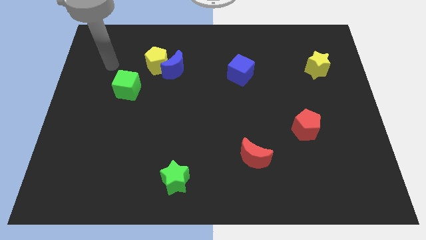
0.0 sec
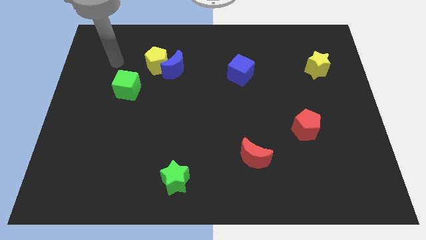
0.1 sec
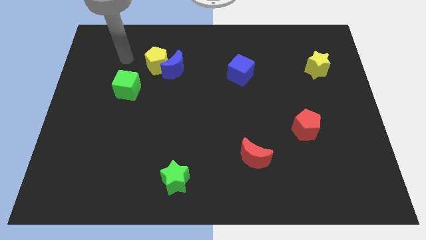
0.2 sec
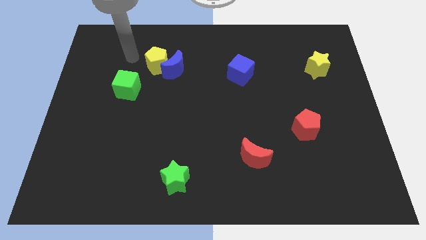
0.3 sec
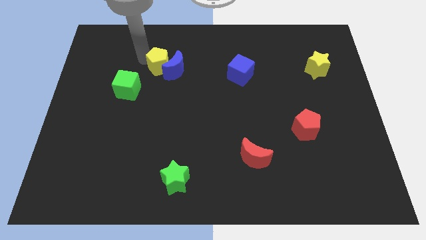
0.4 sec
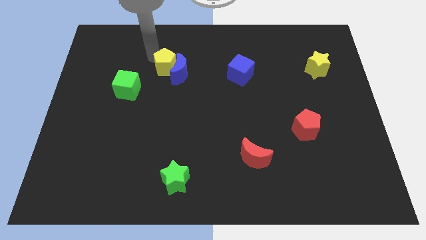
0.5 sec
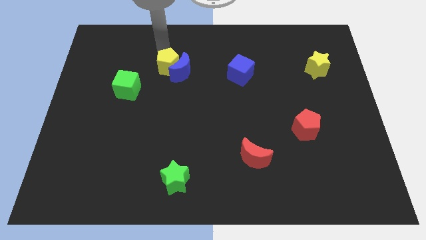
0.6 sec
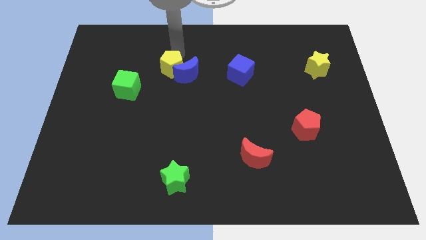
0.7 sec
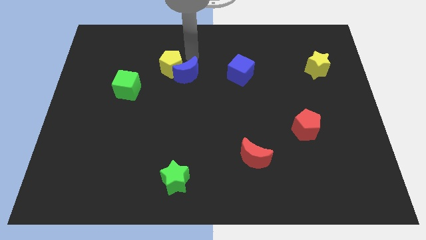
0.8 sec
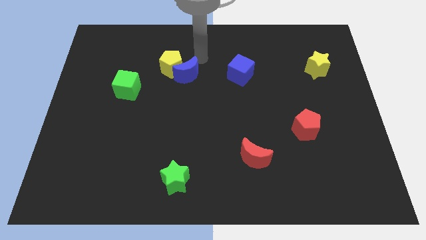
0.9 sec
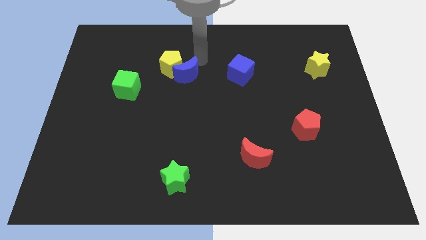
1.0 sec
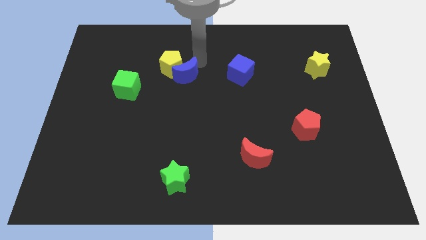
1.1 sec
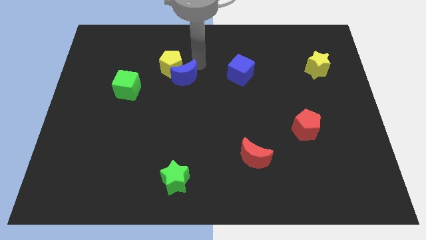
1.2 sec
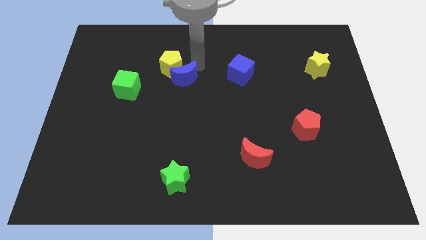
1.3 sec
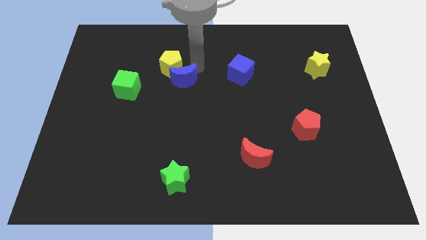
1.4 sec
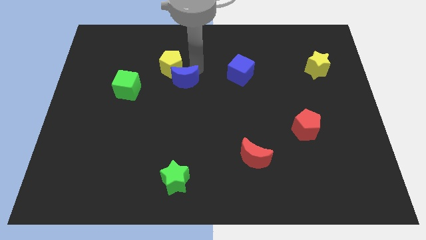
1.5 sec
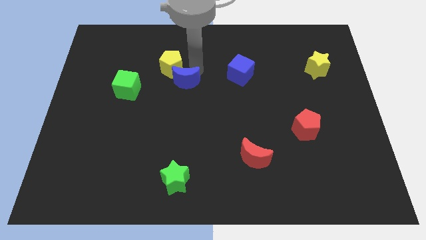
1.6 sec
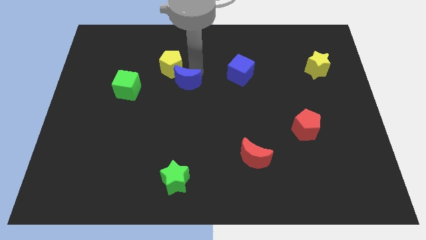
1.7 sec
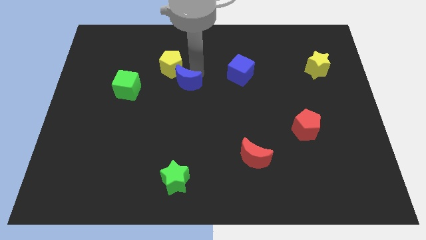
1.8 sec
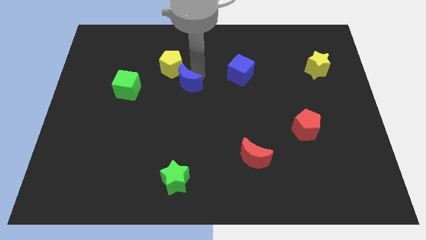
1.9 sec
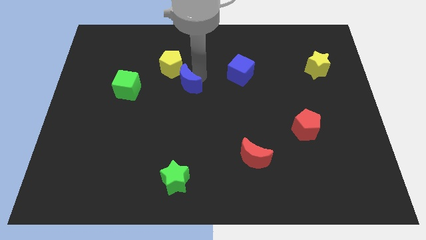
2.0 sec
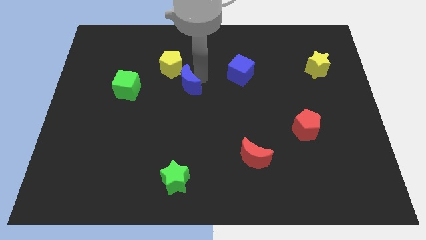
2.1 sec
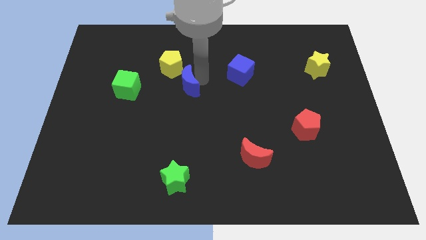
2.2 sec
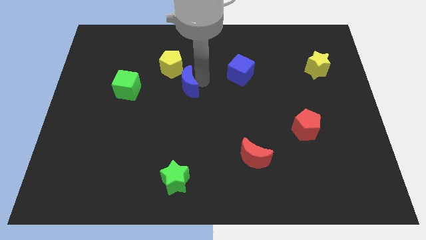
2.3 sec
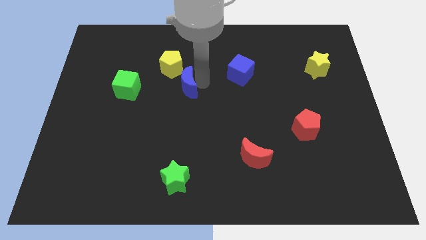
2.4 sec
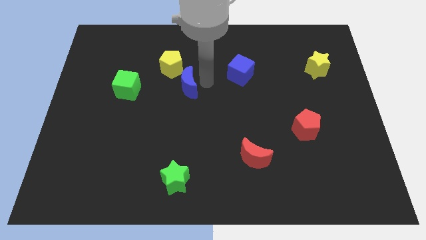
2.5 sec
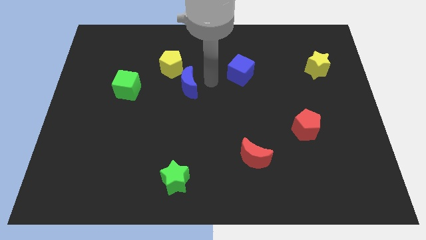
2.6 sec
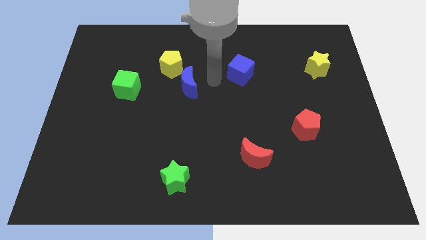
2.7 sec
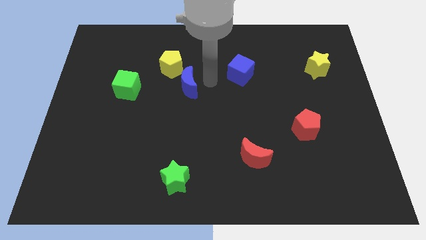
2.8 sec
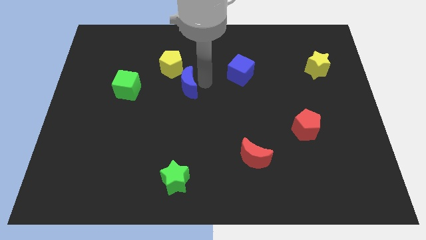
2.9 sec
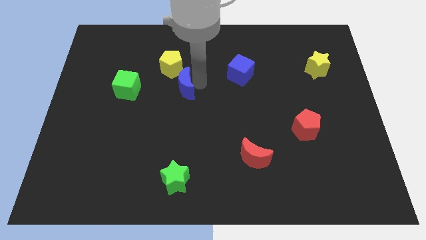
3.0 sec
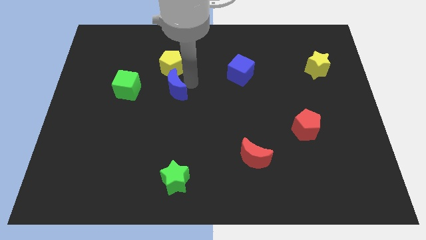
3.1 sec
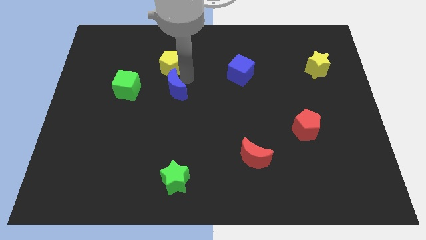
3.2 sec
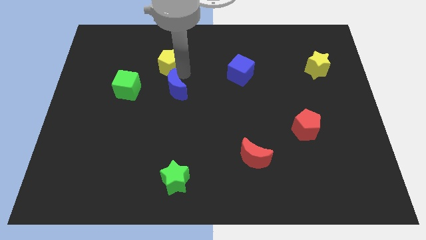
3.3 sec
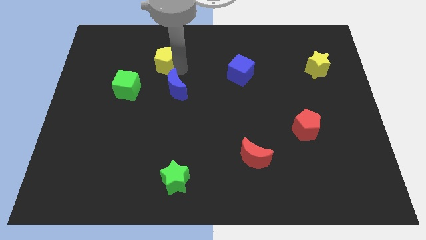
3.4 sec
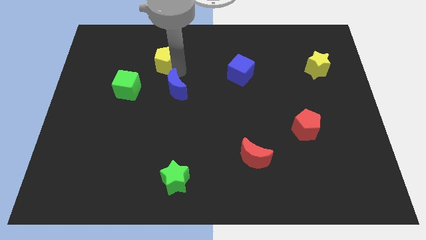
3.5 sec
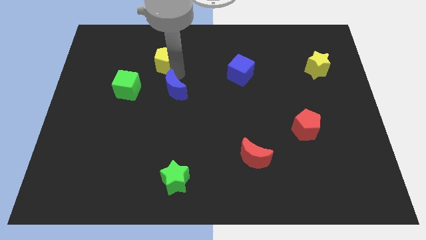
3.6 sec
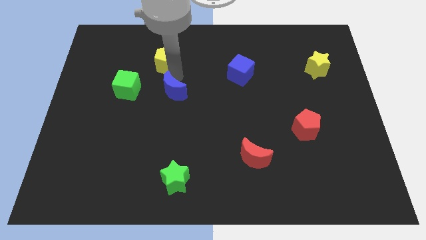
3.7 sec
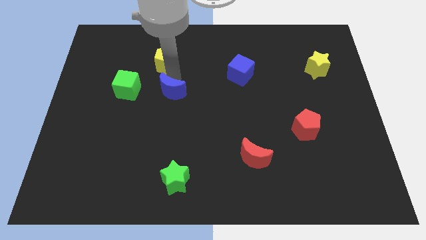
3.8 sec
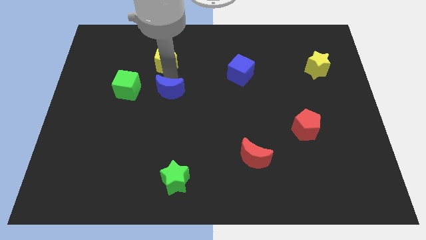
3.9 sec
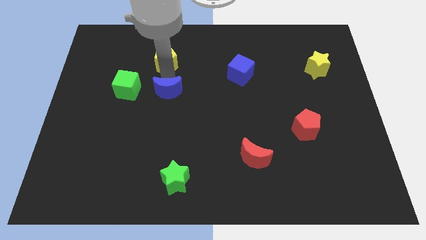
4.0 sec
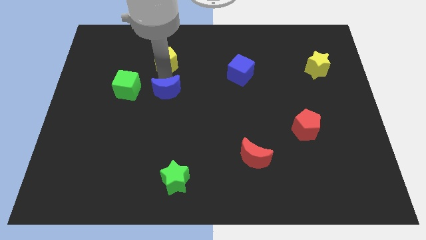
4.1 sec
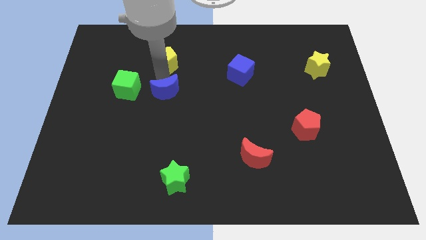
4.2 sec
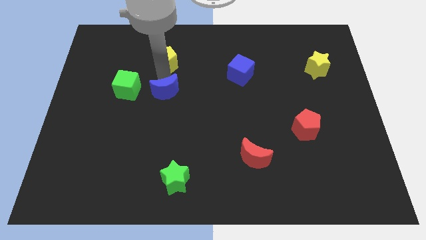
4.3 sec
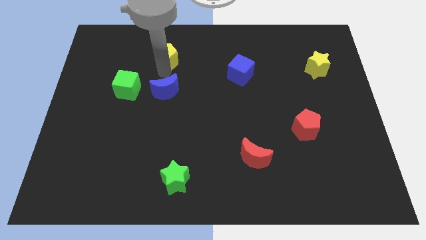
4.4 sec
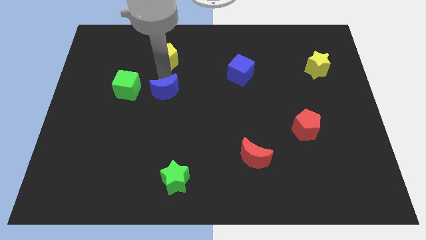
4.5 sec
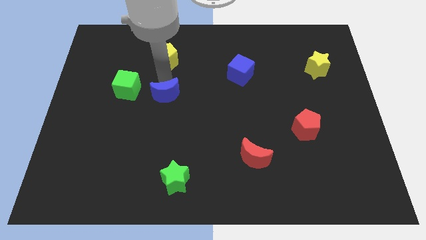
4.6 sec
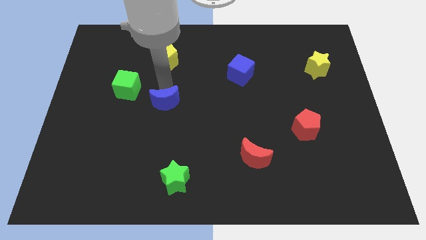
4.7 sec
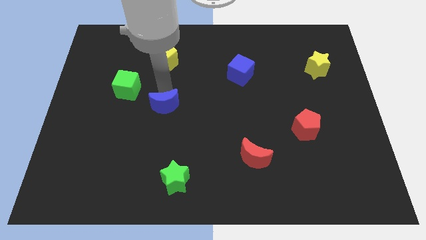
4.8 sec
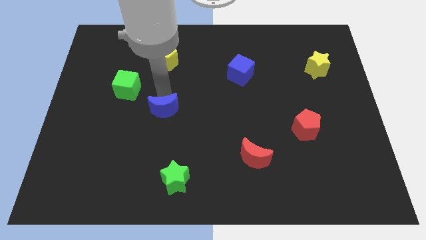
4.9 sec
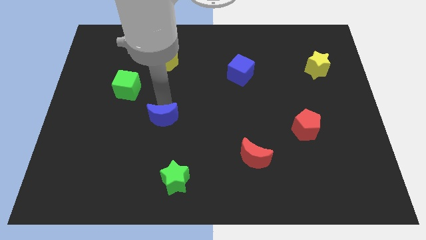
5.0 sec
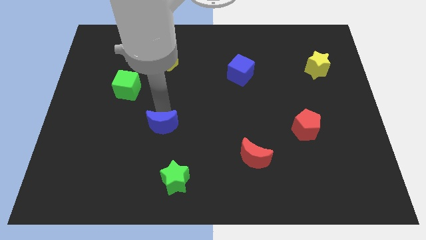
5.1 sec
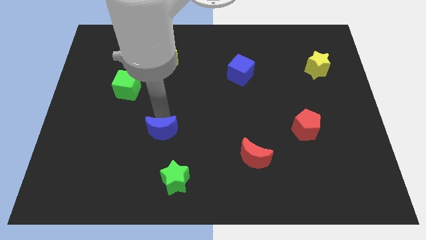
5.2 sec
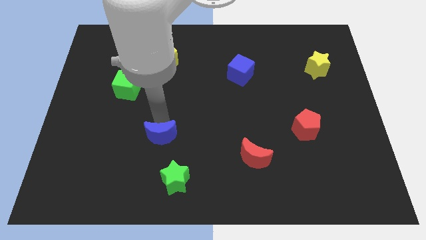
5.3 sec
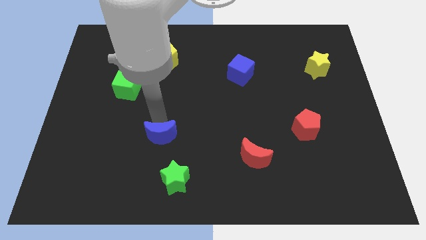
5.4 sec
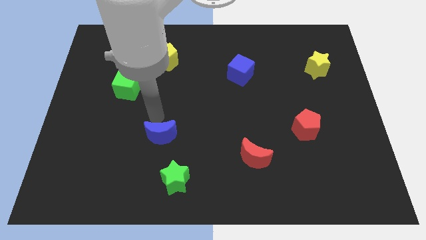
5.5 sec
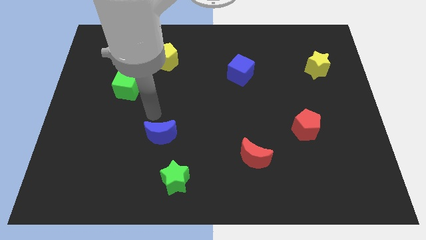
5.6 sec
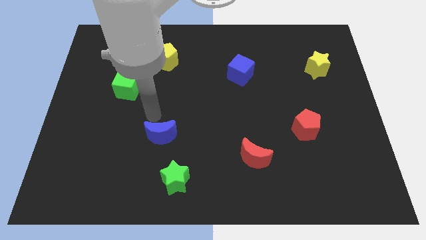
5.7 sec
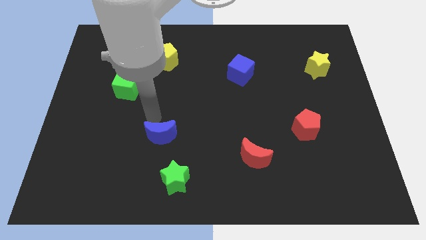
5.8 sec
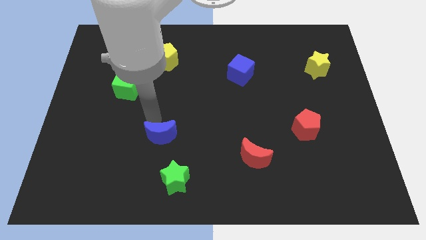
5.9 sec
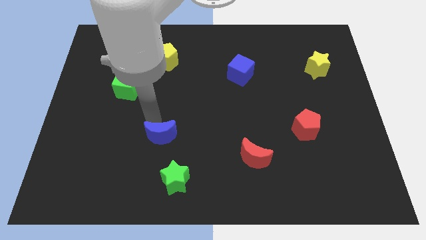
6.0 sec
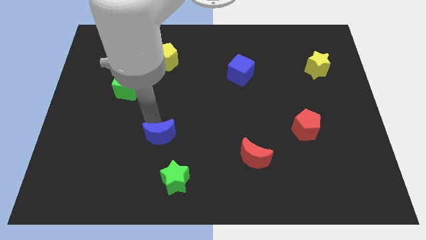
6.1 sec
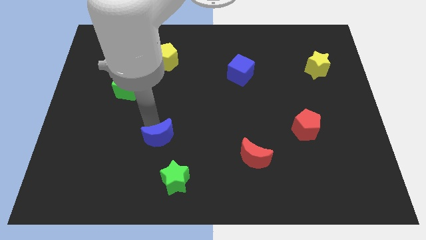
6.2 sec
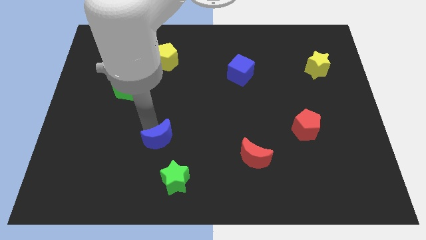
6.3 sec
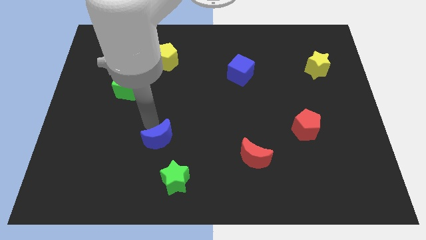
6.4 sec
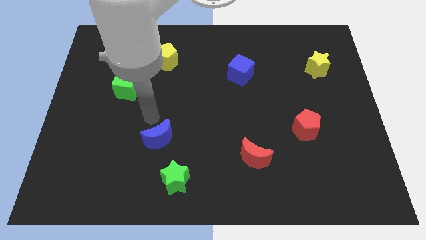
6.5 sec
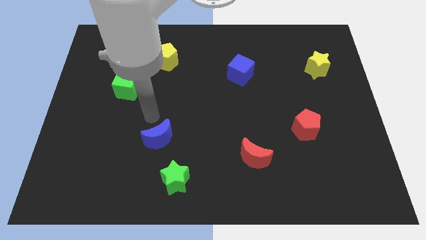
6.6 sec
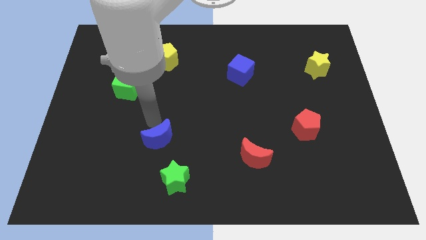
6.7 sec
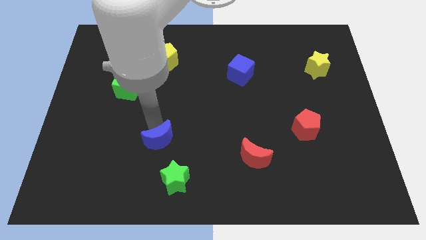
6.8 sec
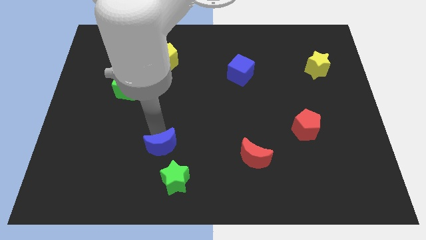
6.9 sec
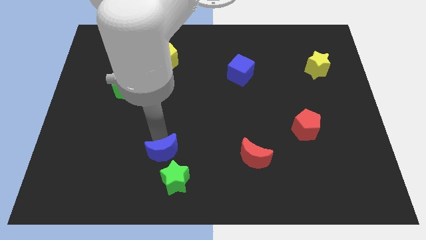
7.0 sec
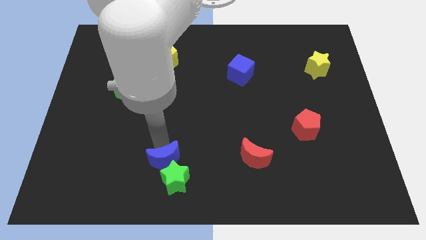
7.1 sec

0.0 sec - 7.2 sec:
move the blue moon to the green star

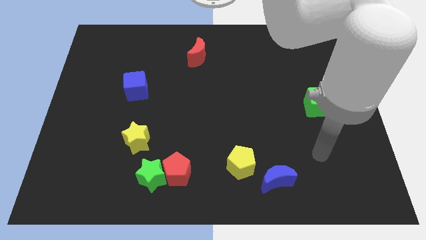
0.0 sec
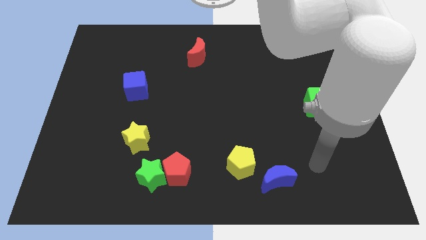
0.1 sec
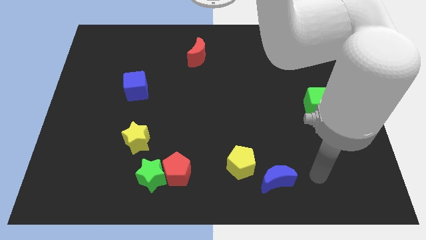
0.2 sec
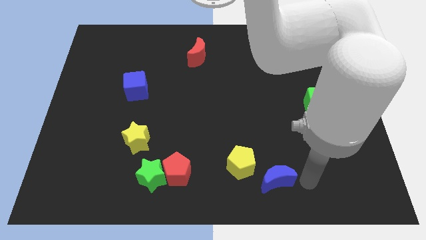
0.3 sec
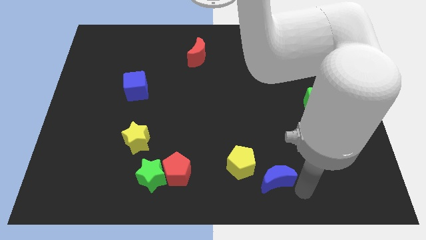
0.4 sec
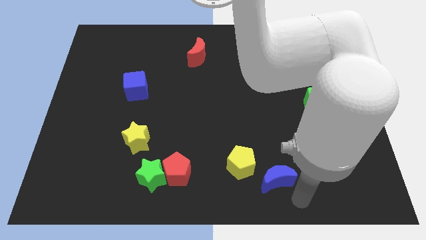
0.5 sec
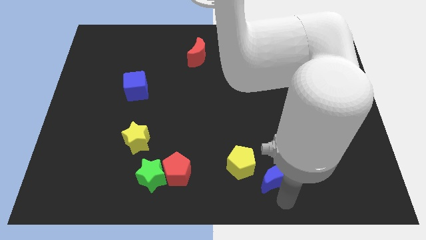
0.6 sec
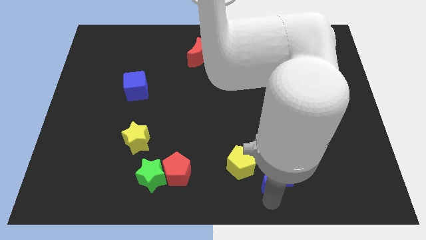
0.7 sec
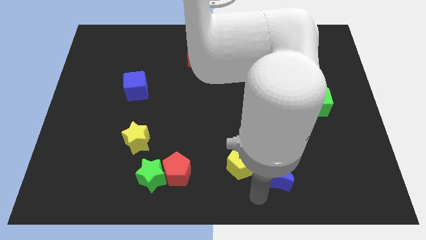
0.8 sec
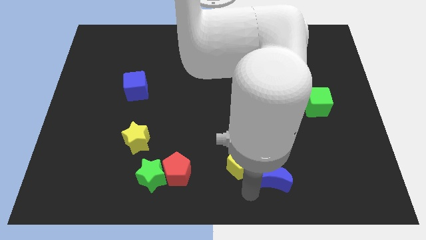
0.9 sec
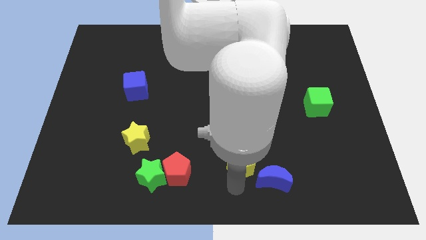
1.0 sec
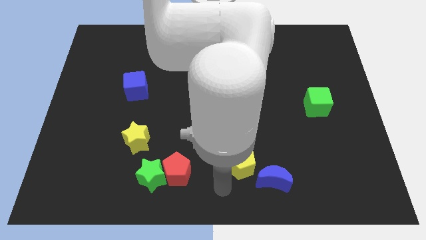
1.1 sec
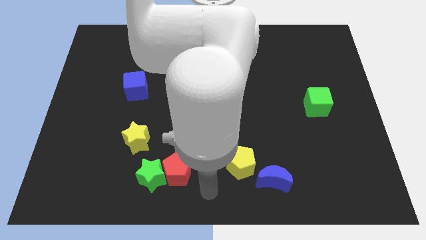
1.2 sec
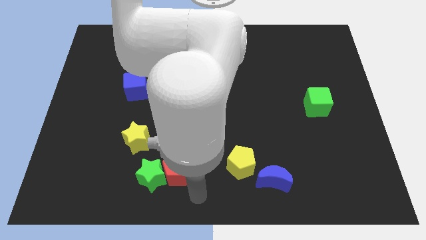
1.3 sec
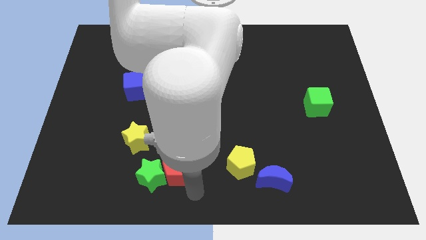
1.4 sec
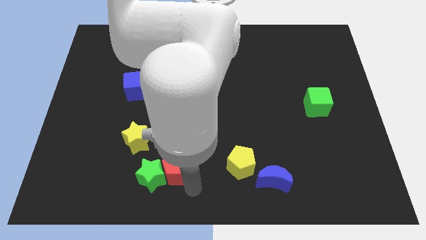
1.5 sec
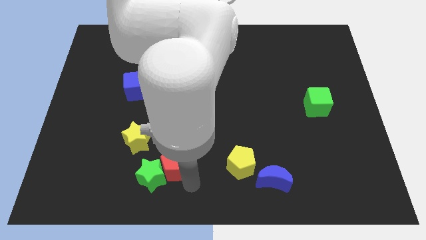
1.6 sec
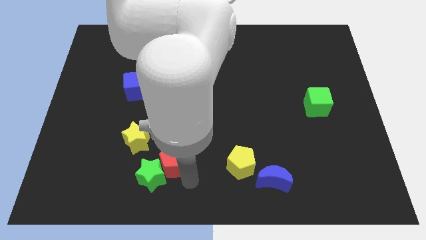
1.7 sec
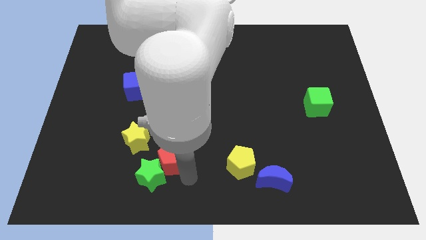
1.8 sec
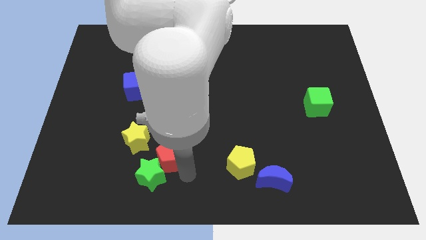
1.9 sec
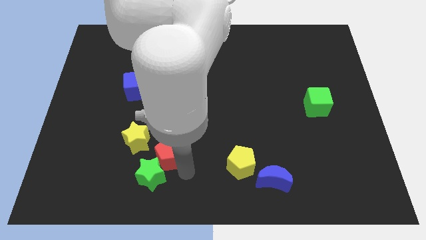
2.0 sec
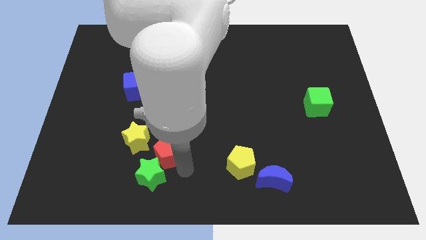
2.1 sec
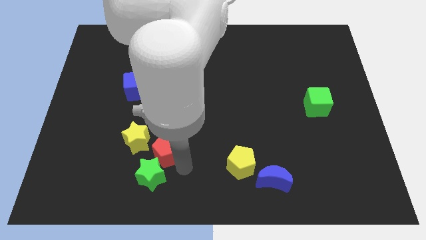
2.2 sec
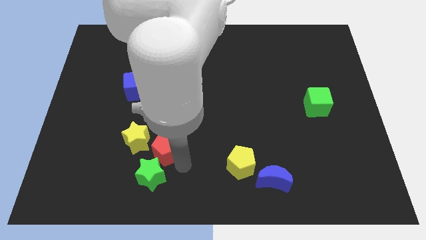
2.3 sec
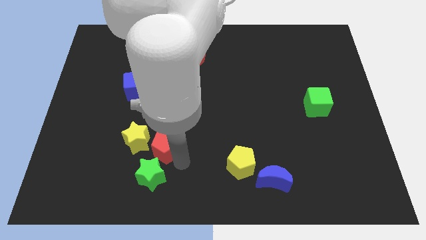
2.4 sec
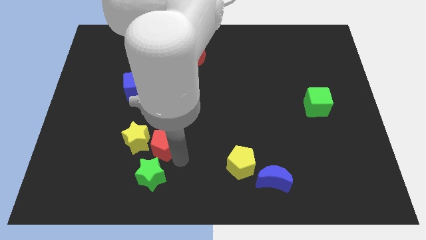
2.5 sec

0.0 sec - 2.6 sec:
push the red pentagon next to the yellow star
